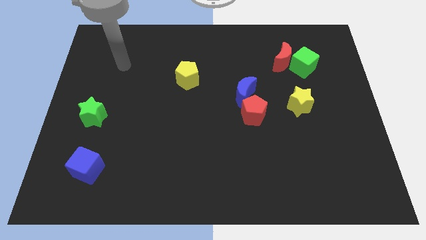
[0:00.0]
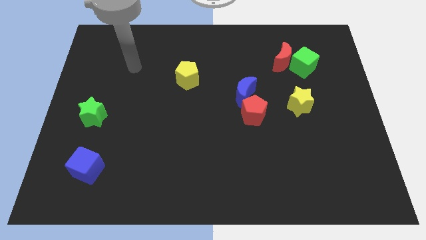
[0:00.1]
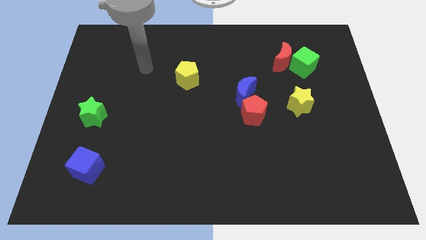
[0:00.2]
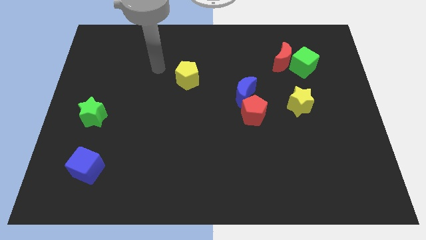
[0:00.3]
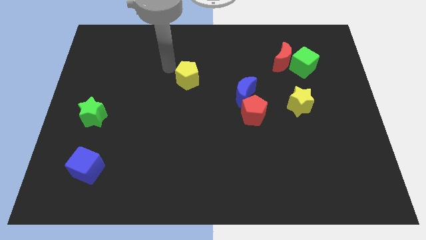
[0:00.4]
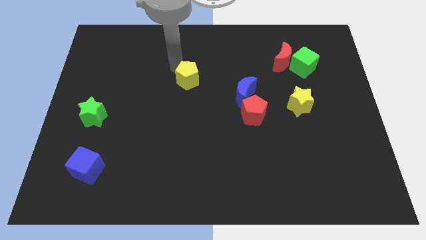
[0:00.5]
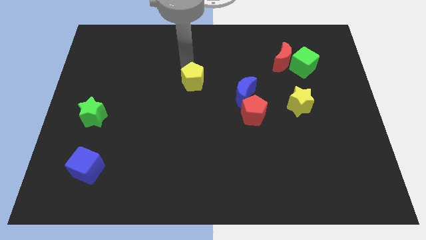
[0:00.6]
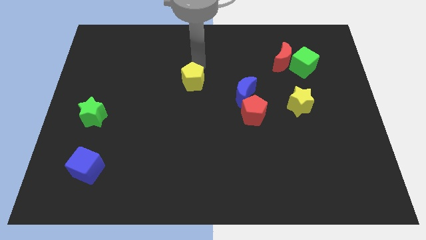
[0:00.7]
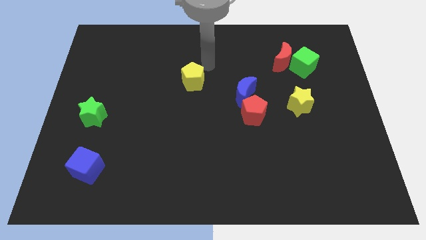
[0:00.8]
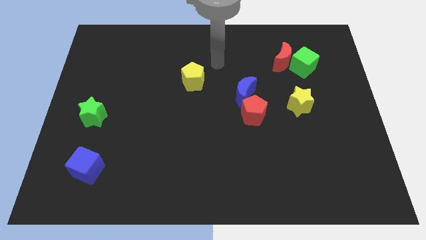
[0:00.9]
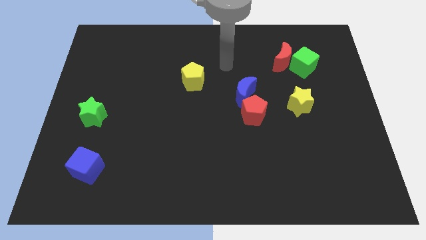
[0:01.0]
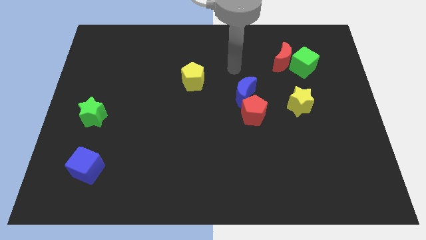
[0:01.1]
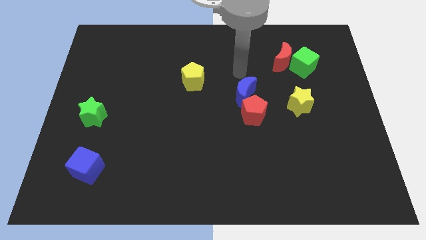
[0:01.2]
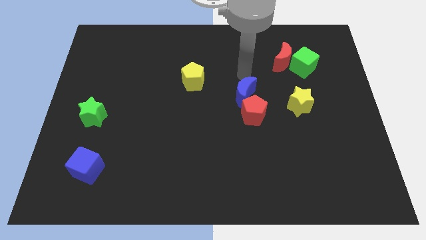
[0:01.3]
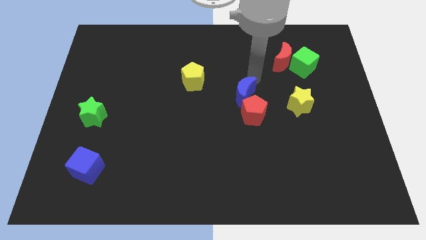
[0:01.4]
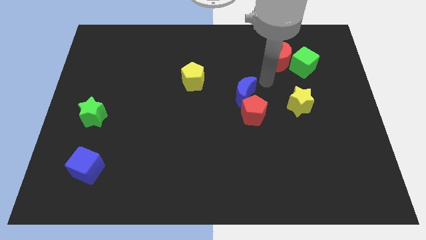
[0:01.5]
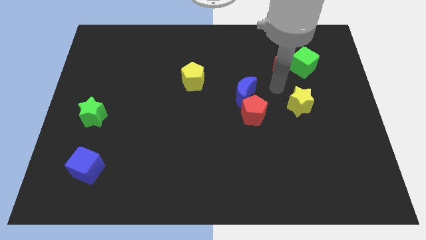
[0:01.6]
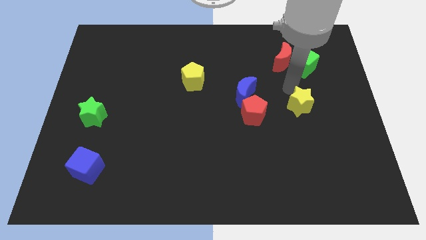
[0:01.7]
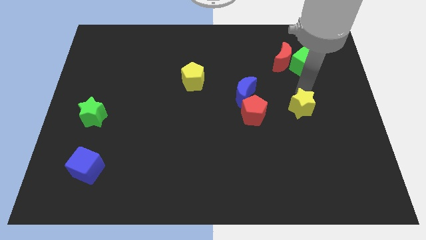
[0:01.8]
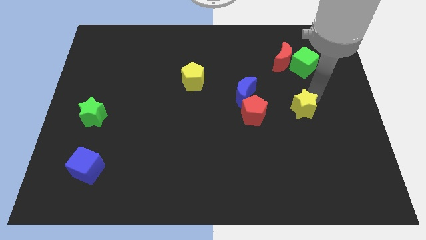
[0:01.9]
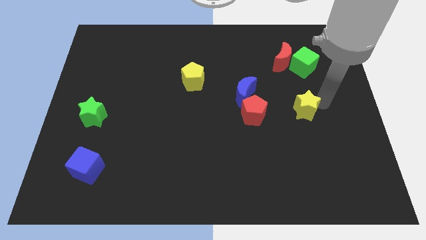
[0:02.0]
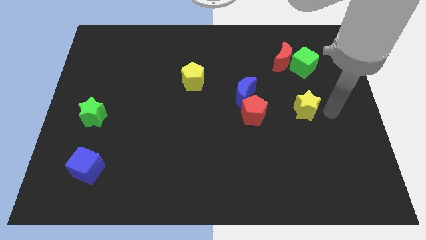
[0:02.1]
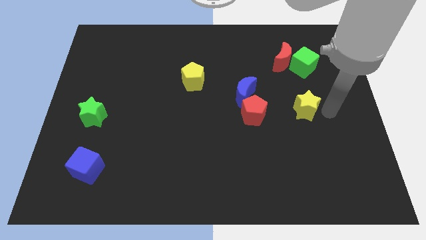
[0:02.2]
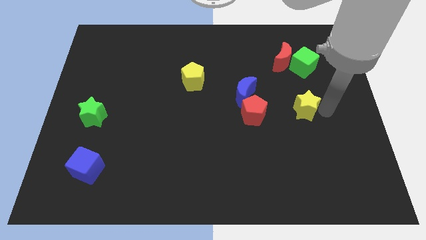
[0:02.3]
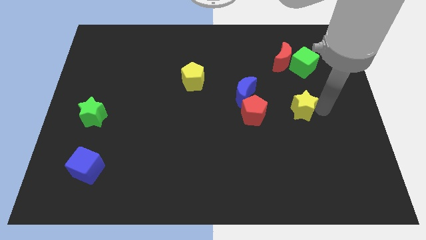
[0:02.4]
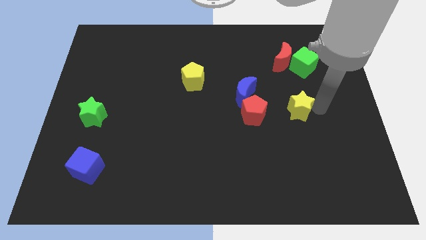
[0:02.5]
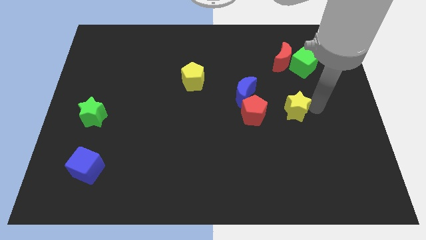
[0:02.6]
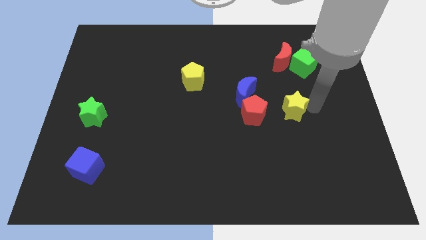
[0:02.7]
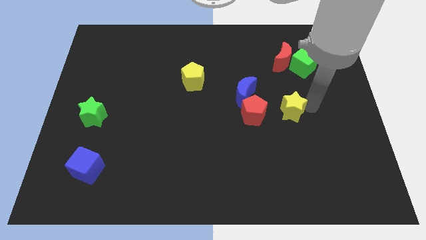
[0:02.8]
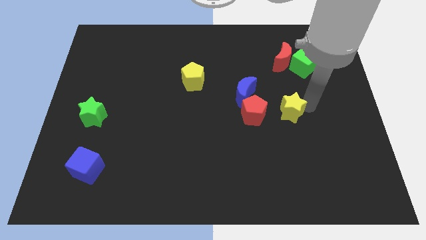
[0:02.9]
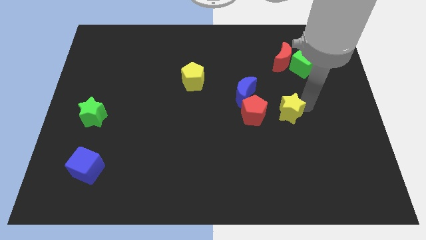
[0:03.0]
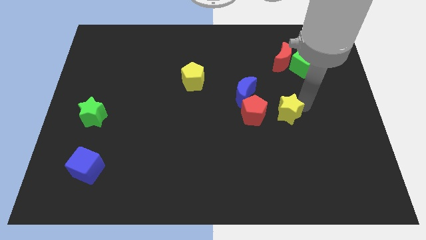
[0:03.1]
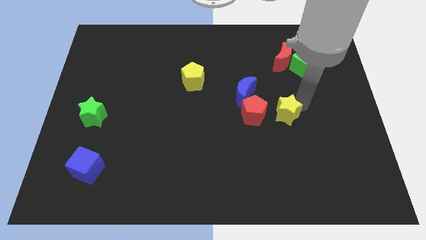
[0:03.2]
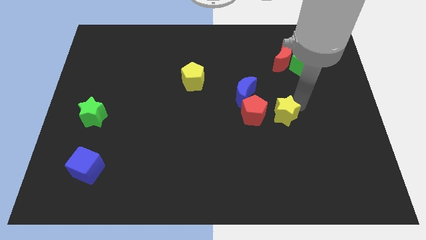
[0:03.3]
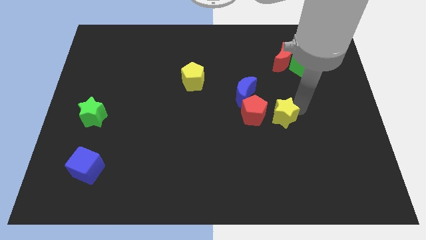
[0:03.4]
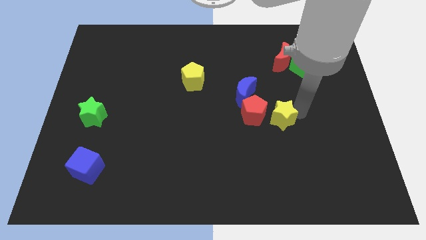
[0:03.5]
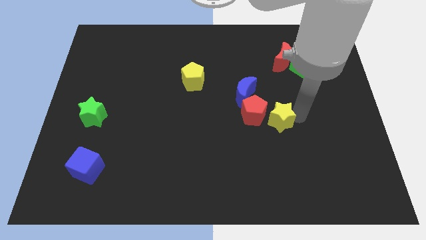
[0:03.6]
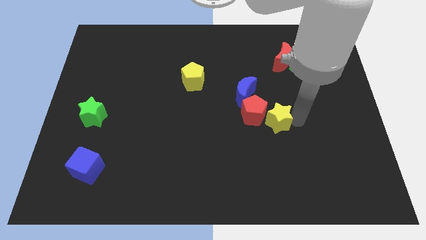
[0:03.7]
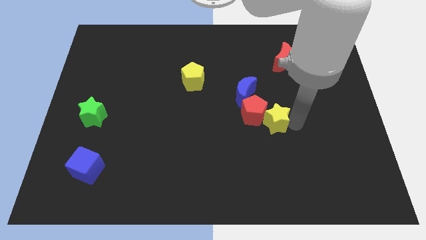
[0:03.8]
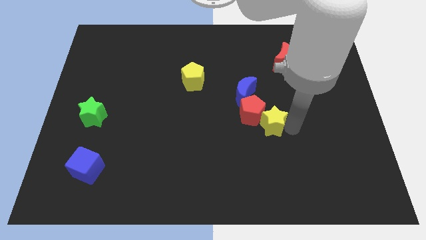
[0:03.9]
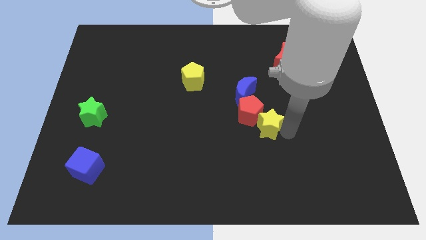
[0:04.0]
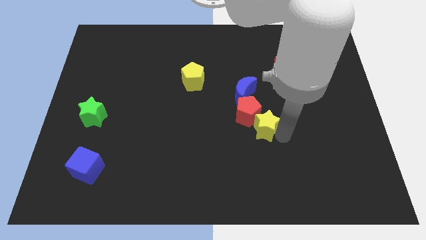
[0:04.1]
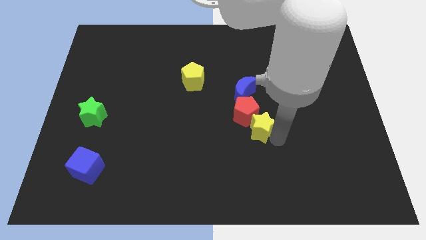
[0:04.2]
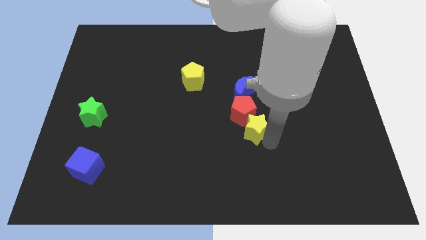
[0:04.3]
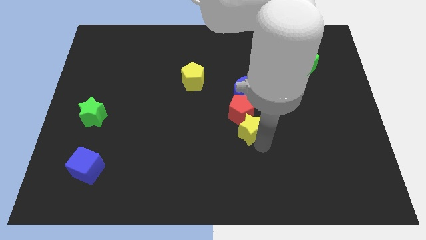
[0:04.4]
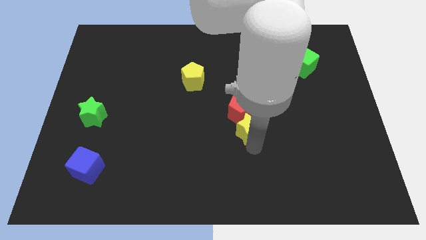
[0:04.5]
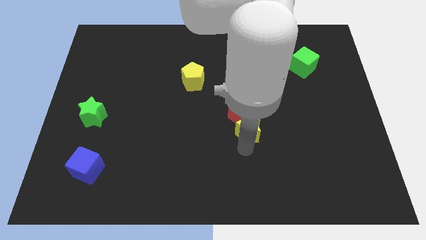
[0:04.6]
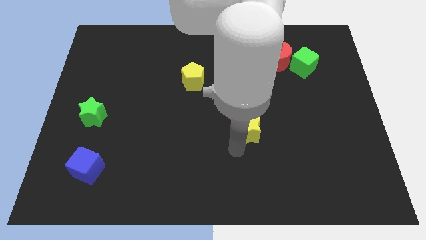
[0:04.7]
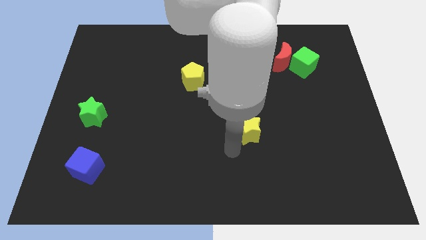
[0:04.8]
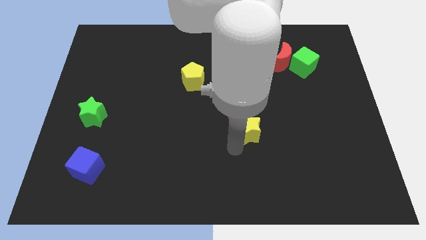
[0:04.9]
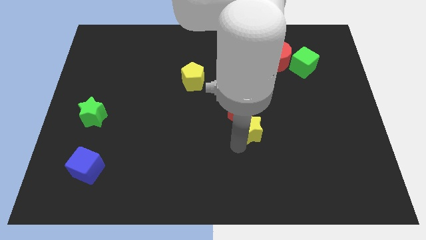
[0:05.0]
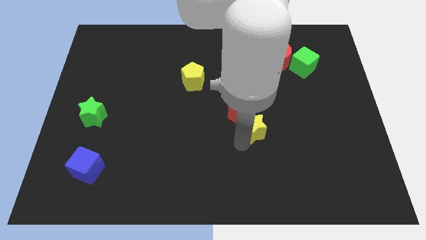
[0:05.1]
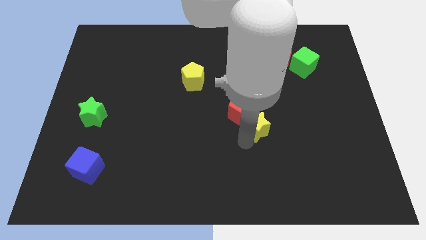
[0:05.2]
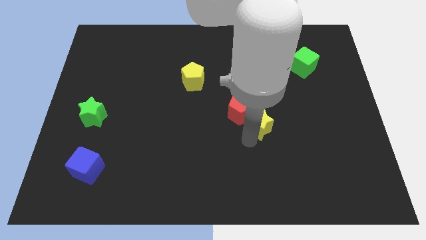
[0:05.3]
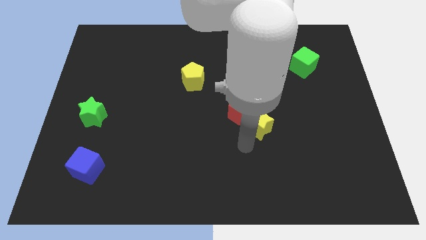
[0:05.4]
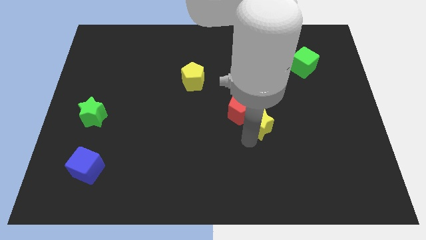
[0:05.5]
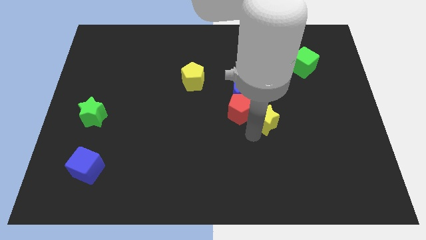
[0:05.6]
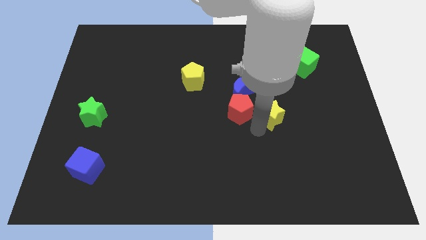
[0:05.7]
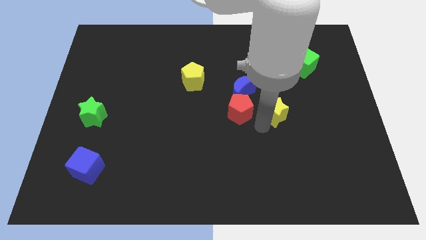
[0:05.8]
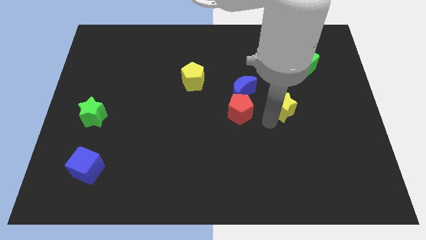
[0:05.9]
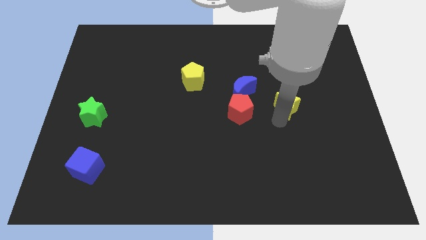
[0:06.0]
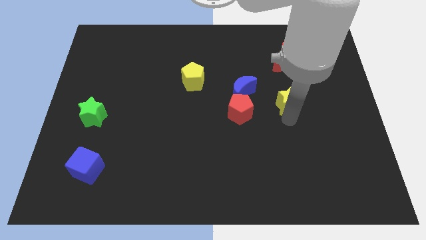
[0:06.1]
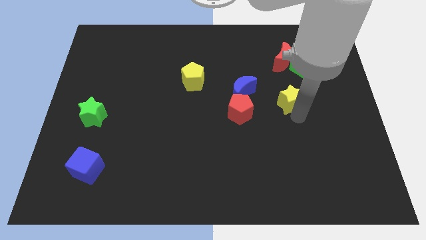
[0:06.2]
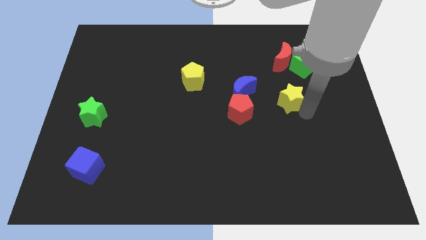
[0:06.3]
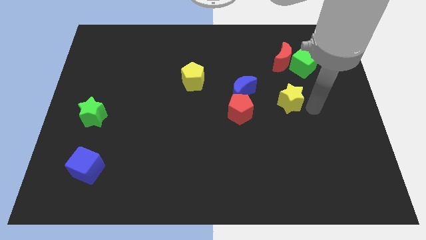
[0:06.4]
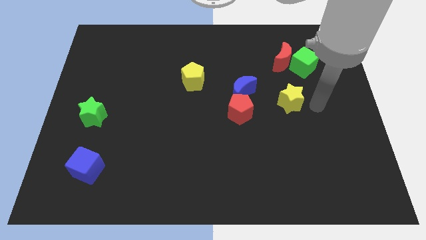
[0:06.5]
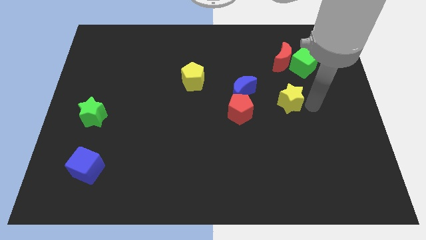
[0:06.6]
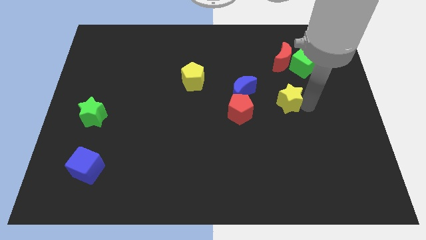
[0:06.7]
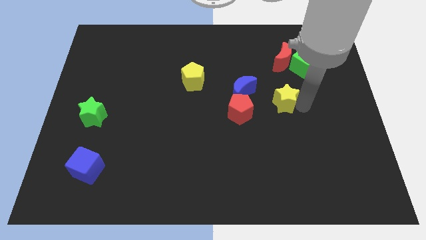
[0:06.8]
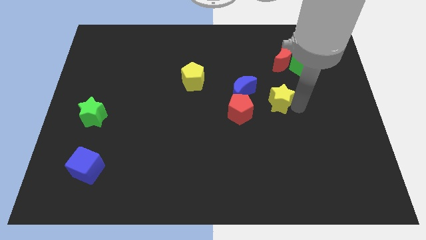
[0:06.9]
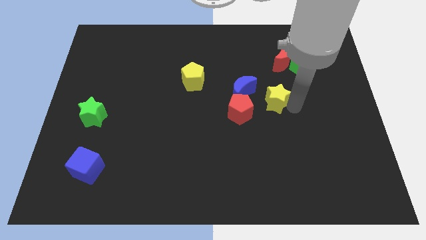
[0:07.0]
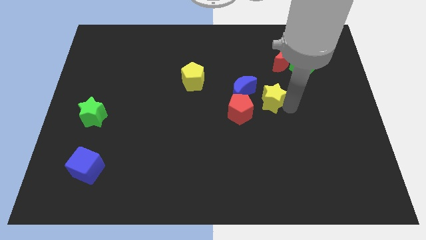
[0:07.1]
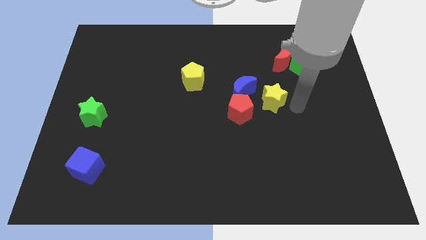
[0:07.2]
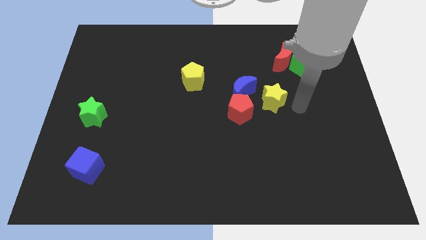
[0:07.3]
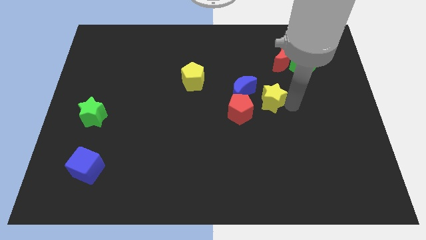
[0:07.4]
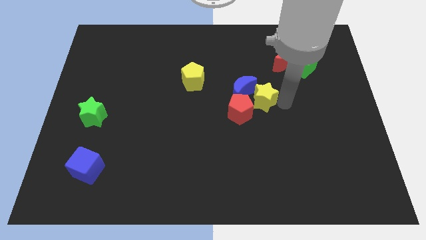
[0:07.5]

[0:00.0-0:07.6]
push the yellow star close to the blue moon
